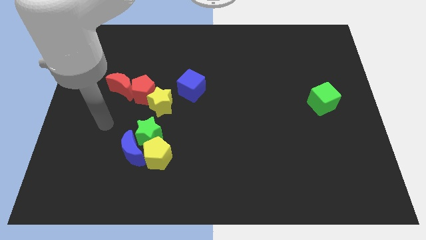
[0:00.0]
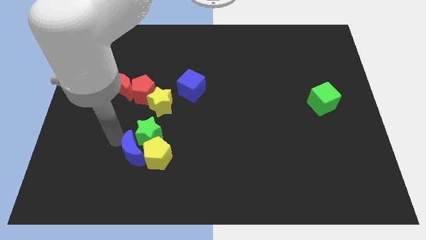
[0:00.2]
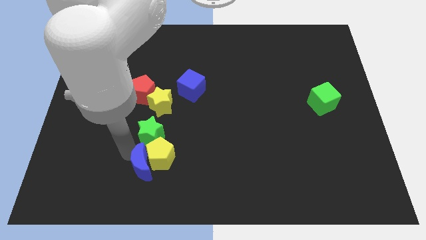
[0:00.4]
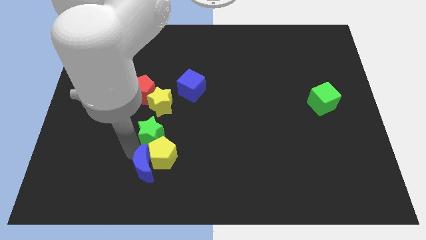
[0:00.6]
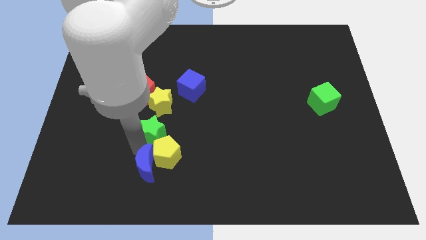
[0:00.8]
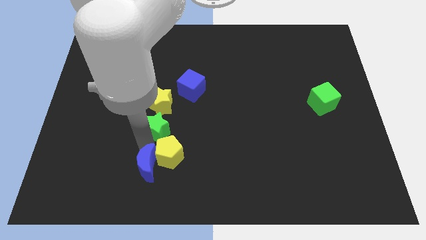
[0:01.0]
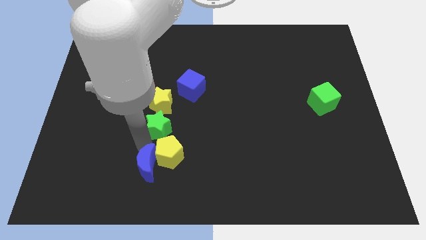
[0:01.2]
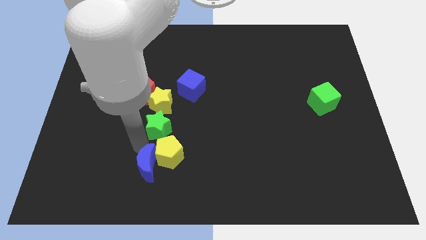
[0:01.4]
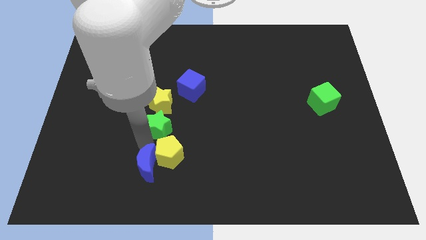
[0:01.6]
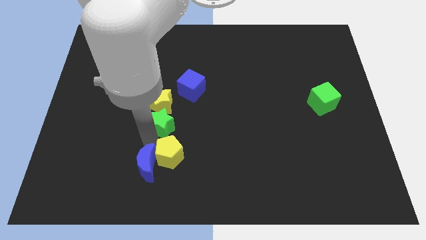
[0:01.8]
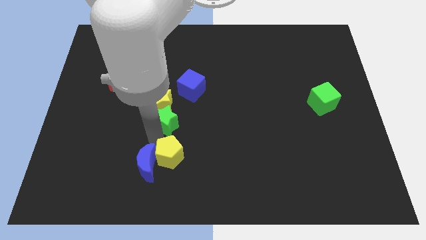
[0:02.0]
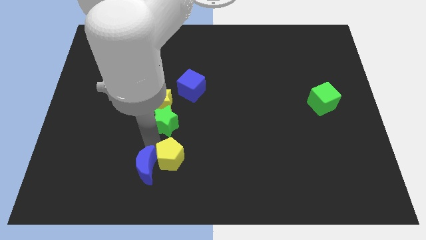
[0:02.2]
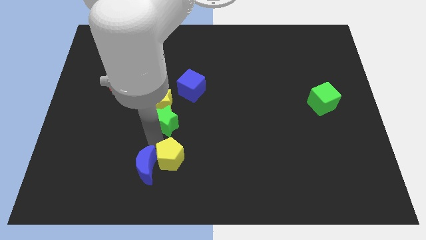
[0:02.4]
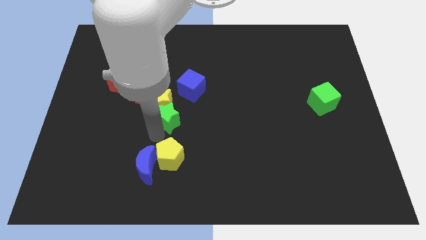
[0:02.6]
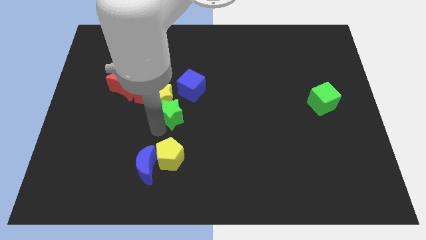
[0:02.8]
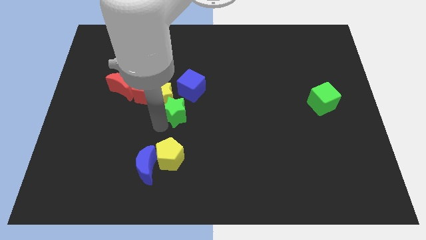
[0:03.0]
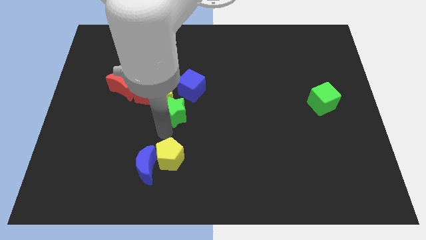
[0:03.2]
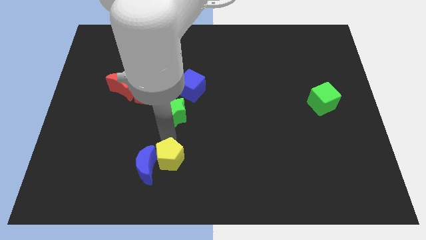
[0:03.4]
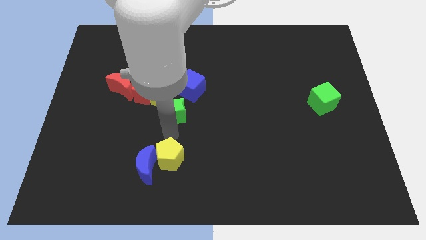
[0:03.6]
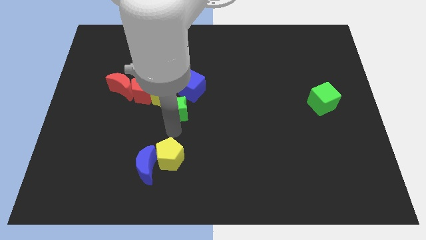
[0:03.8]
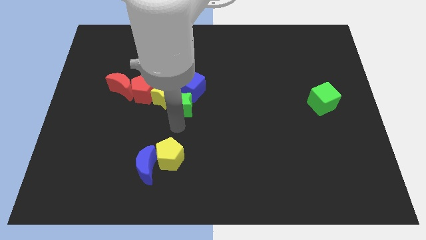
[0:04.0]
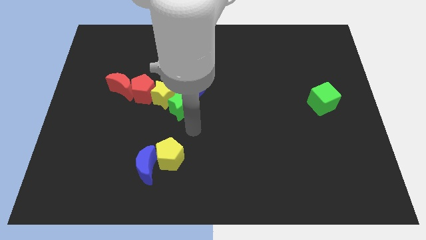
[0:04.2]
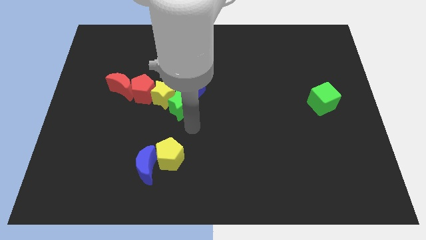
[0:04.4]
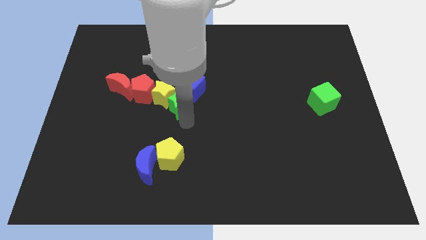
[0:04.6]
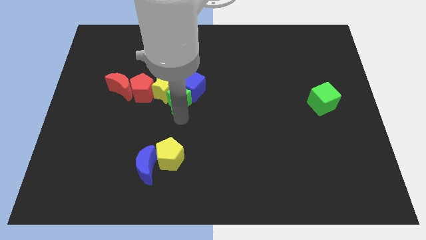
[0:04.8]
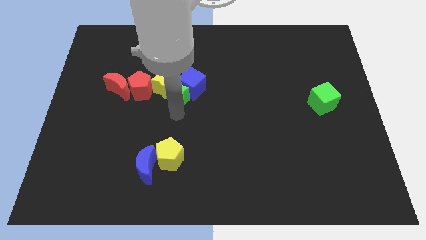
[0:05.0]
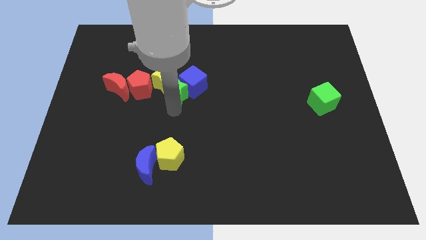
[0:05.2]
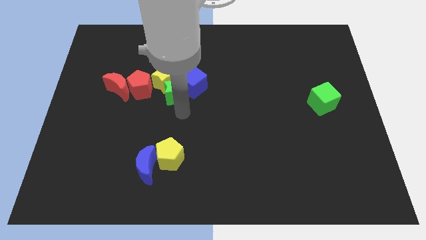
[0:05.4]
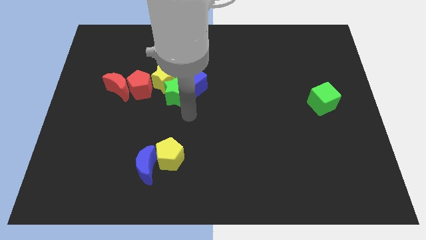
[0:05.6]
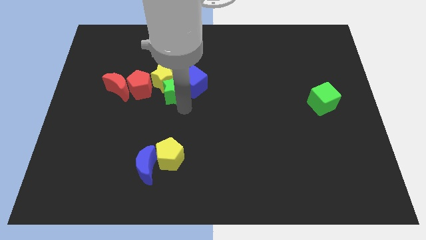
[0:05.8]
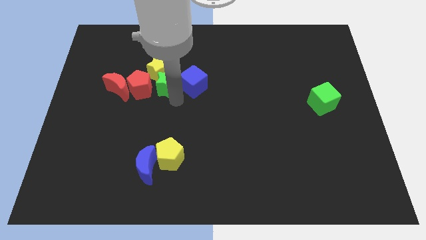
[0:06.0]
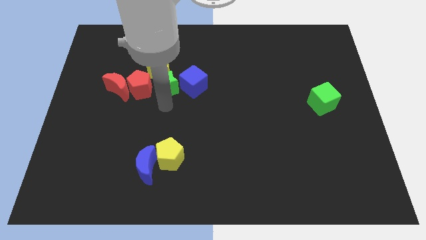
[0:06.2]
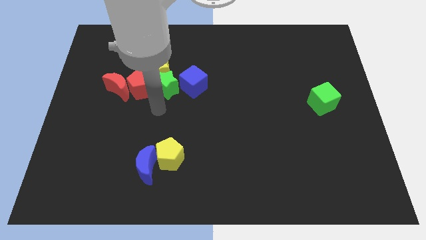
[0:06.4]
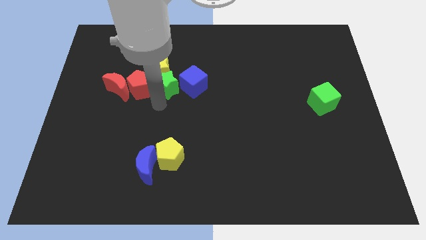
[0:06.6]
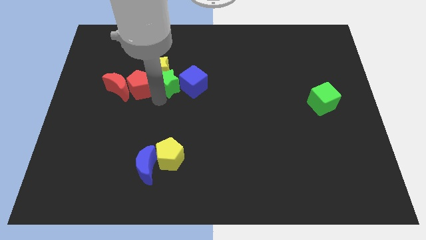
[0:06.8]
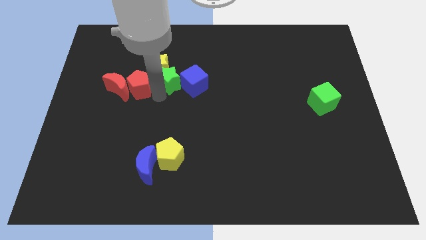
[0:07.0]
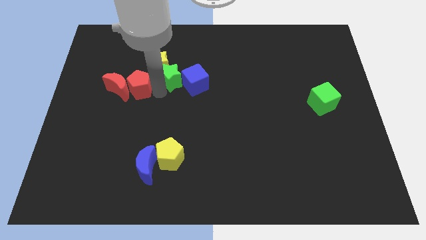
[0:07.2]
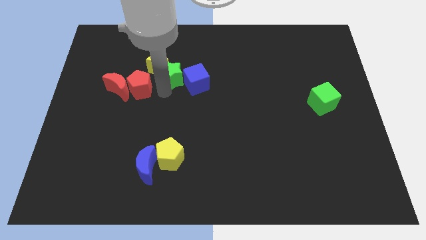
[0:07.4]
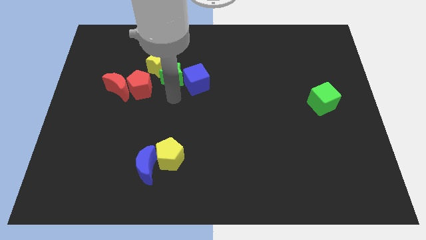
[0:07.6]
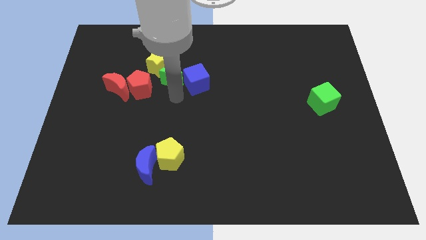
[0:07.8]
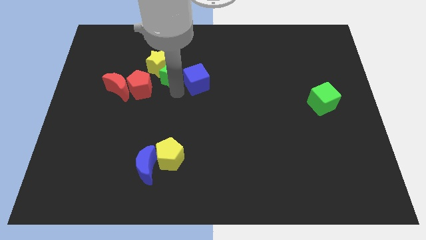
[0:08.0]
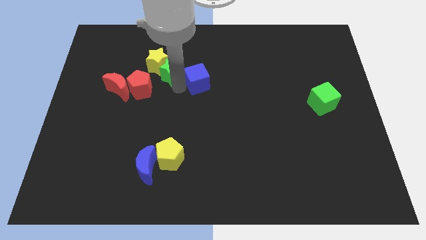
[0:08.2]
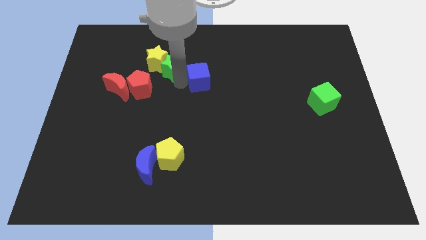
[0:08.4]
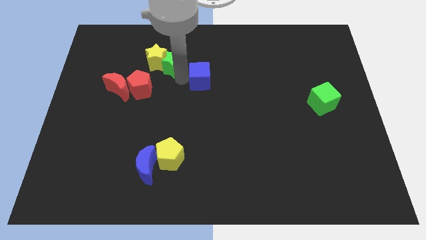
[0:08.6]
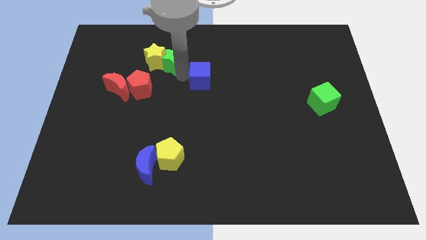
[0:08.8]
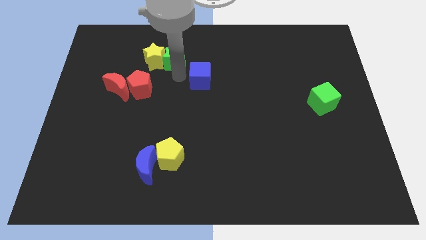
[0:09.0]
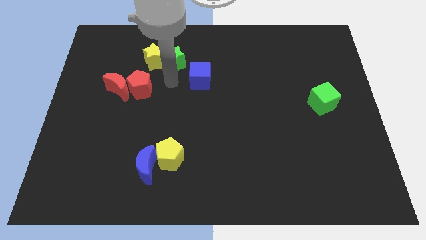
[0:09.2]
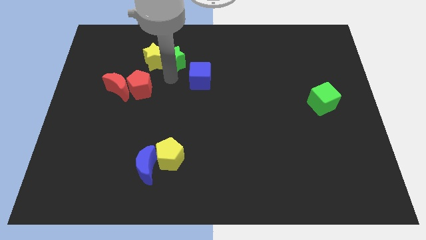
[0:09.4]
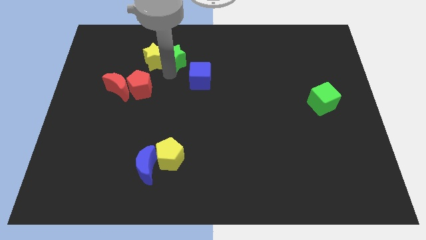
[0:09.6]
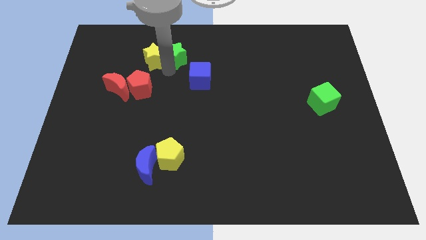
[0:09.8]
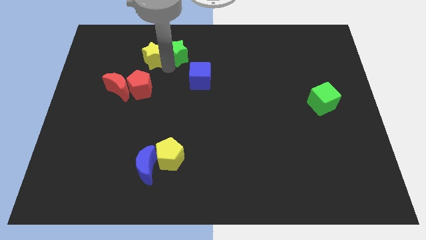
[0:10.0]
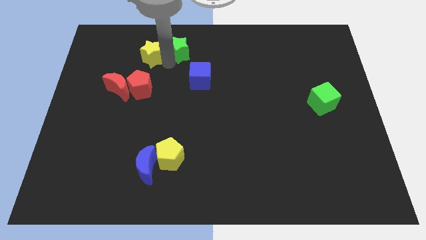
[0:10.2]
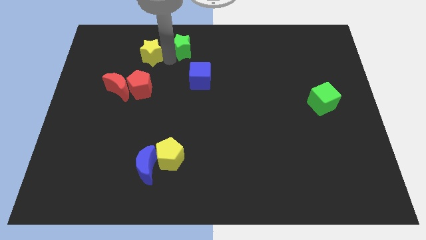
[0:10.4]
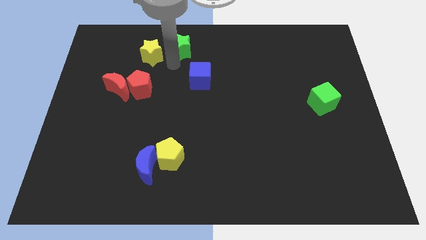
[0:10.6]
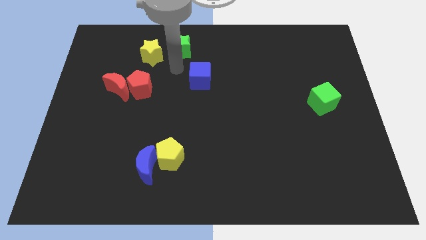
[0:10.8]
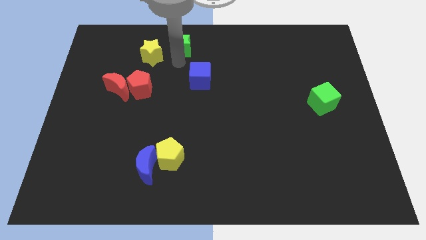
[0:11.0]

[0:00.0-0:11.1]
push the green star to the top

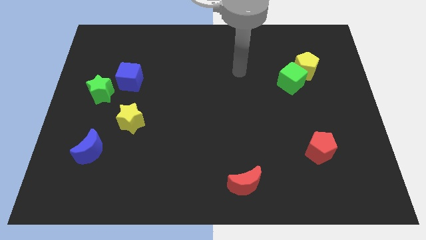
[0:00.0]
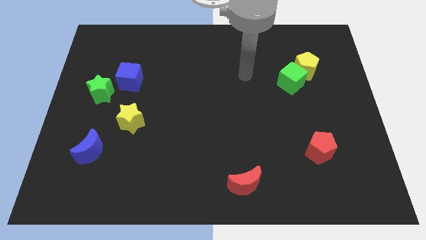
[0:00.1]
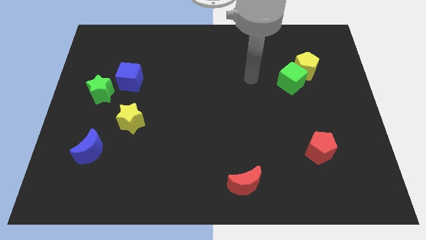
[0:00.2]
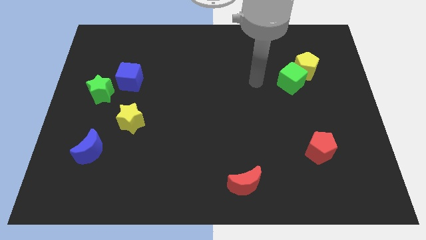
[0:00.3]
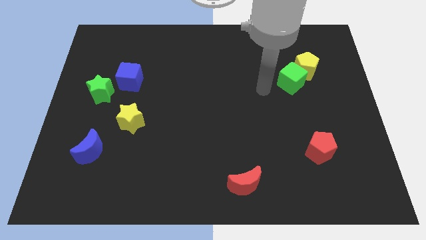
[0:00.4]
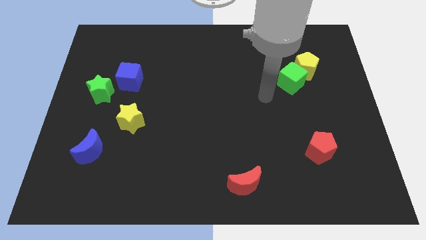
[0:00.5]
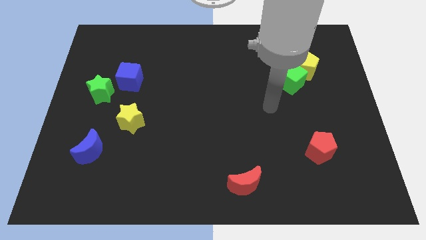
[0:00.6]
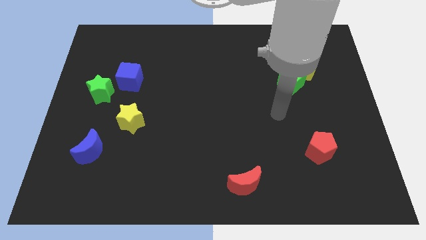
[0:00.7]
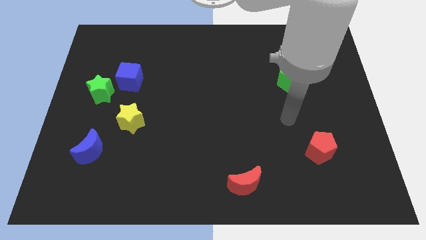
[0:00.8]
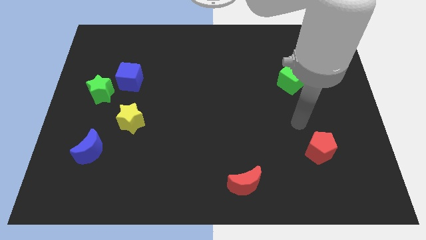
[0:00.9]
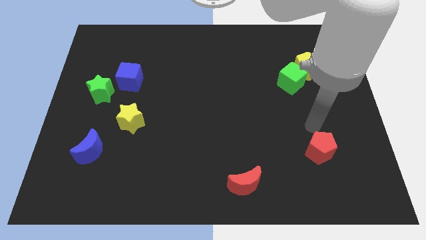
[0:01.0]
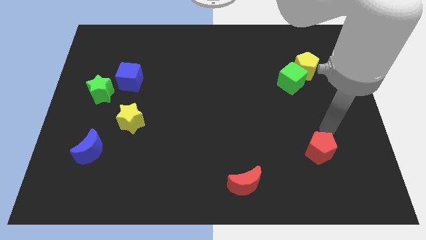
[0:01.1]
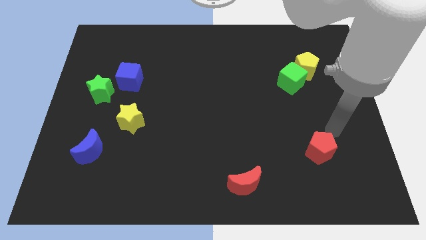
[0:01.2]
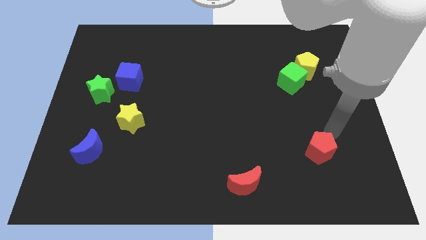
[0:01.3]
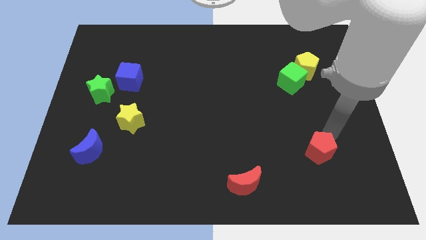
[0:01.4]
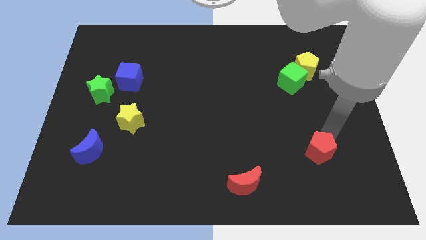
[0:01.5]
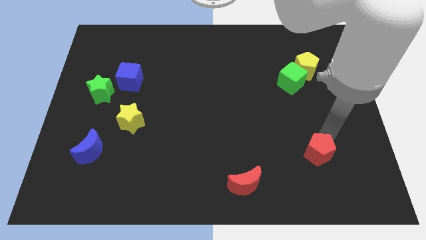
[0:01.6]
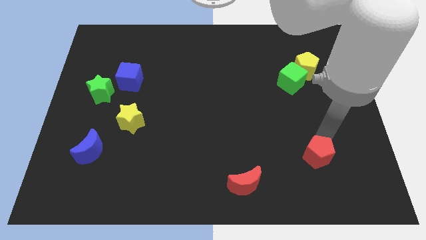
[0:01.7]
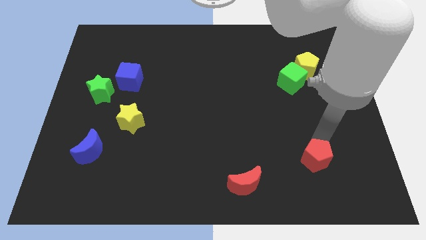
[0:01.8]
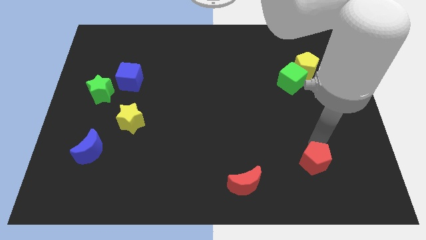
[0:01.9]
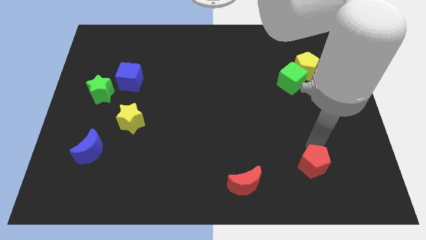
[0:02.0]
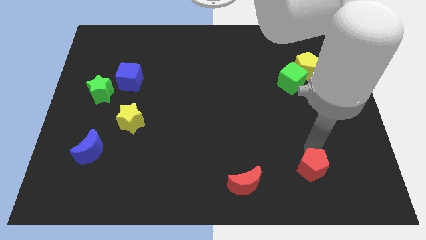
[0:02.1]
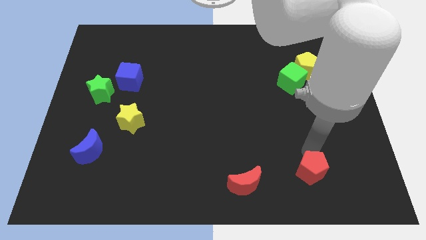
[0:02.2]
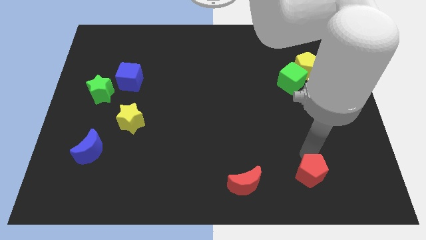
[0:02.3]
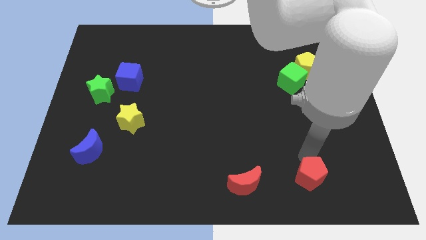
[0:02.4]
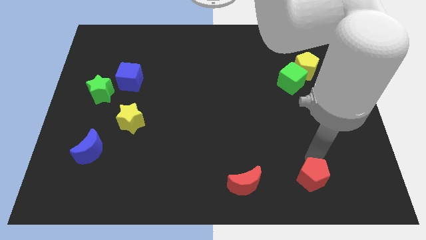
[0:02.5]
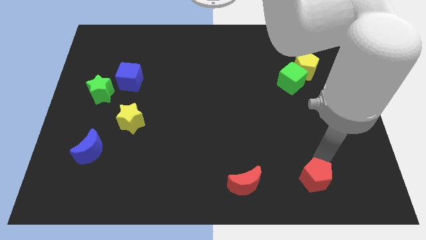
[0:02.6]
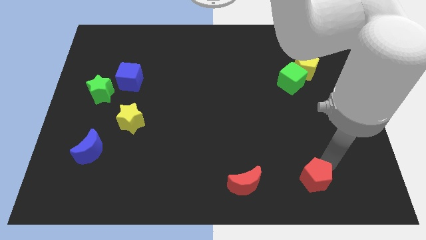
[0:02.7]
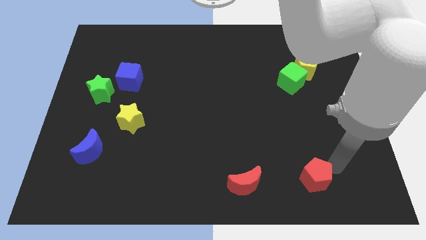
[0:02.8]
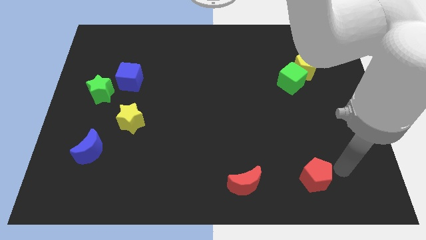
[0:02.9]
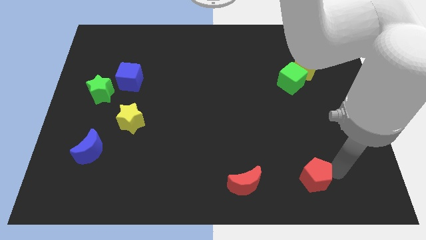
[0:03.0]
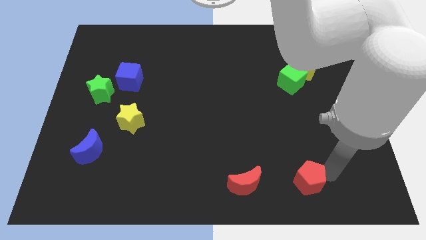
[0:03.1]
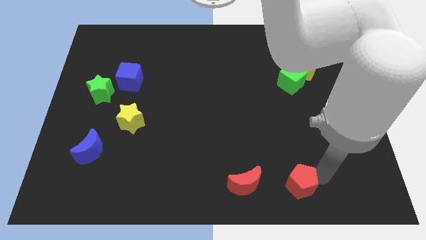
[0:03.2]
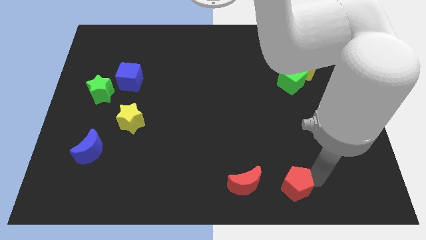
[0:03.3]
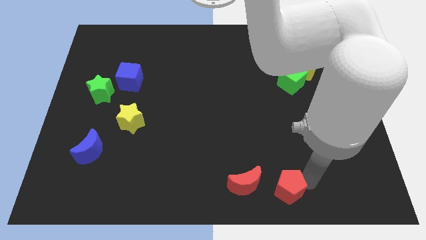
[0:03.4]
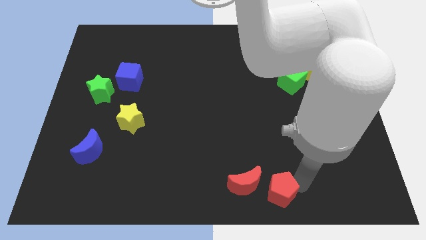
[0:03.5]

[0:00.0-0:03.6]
slide the red pentagon to the bottom side
